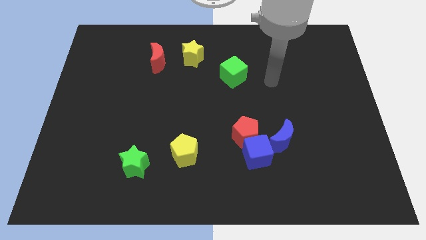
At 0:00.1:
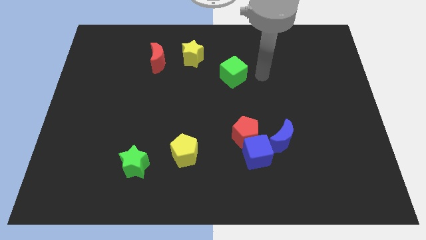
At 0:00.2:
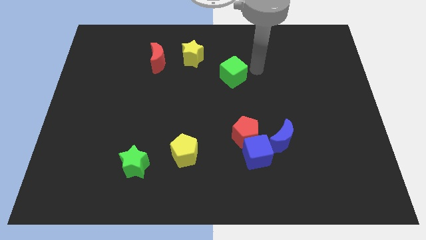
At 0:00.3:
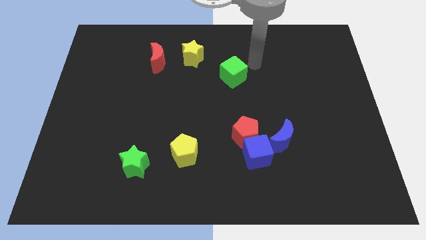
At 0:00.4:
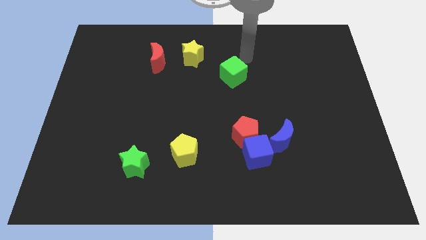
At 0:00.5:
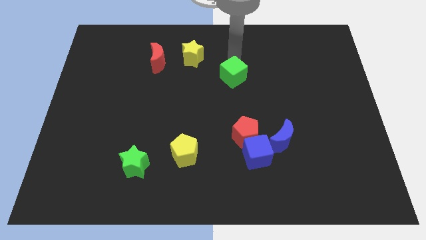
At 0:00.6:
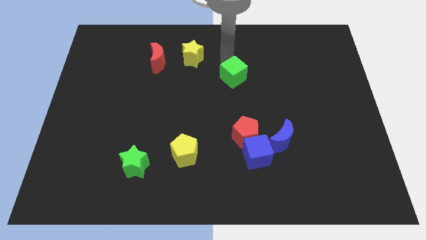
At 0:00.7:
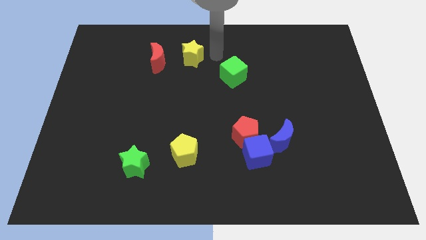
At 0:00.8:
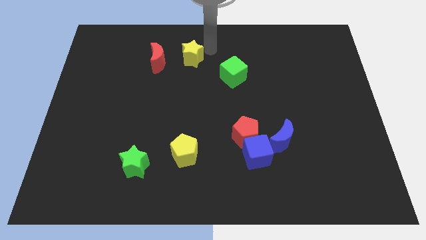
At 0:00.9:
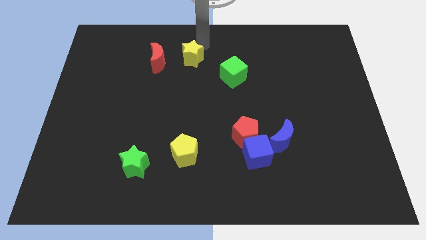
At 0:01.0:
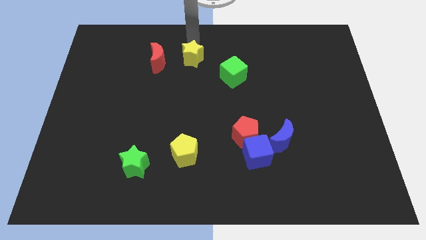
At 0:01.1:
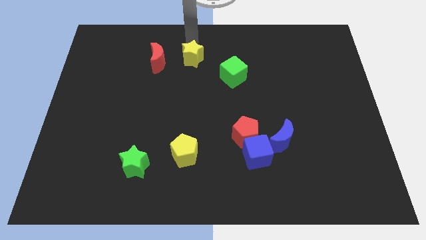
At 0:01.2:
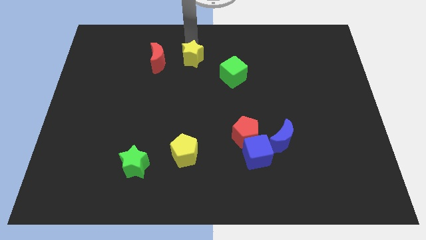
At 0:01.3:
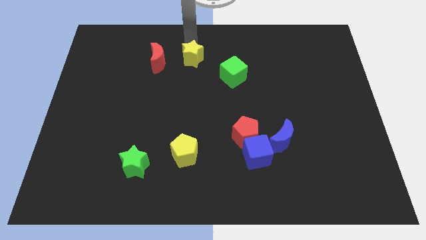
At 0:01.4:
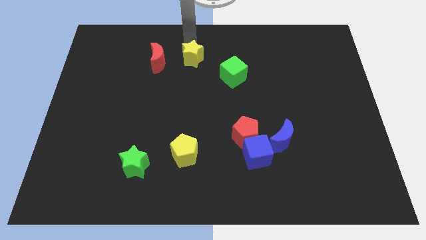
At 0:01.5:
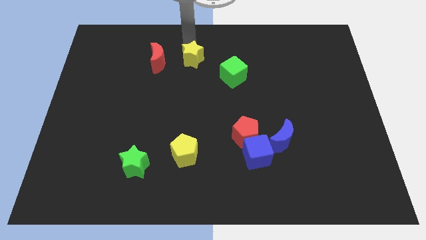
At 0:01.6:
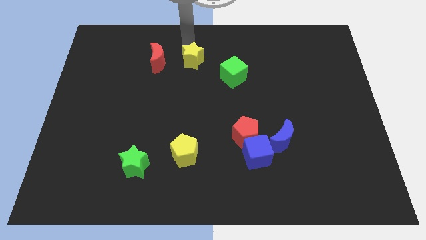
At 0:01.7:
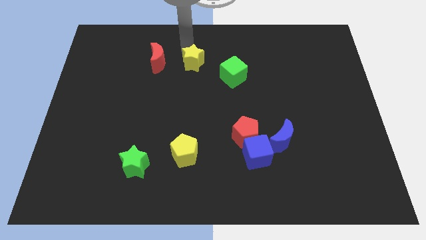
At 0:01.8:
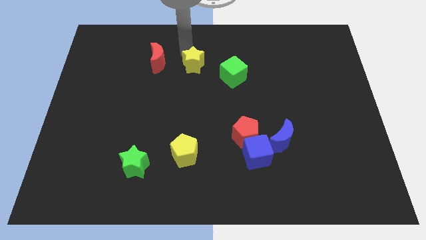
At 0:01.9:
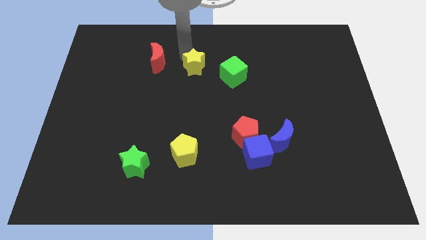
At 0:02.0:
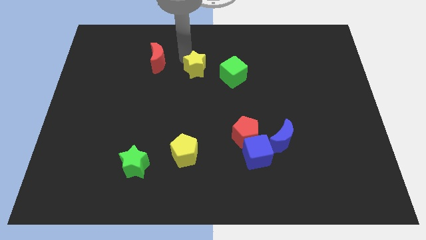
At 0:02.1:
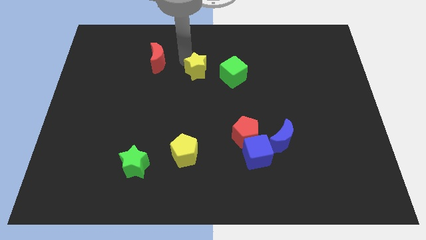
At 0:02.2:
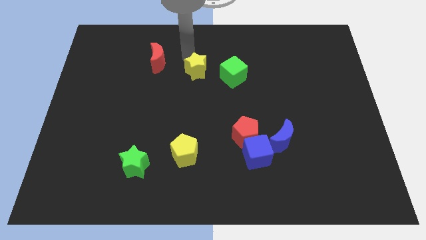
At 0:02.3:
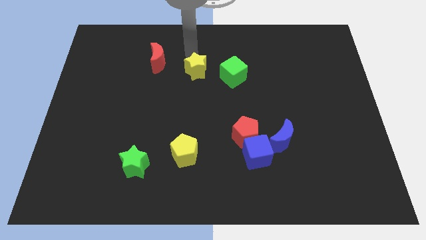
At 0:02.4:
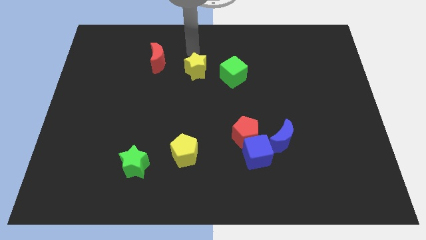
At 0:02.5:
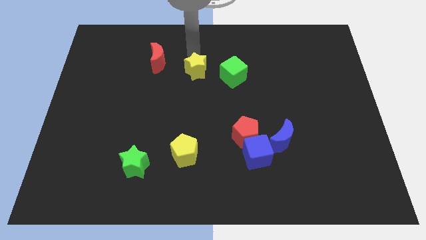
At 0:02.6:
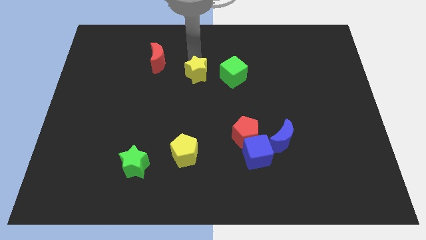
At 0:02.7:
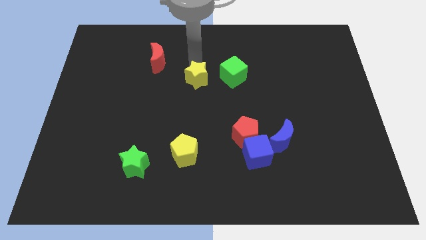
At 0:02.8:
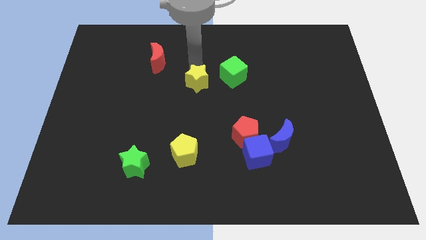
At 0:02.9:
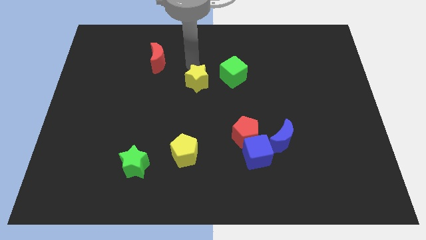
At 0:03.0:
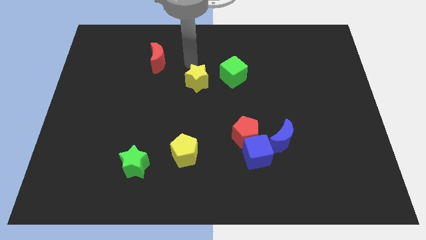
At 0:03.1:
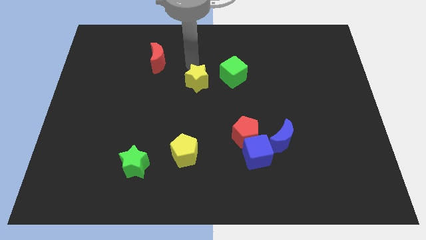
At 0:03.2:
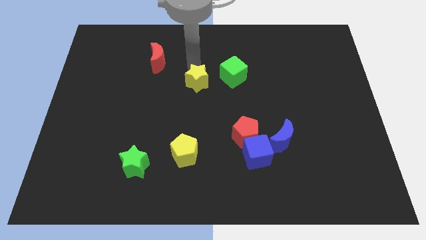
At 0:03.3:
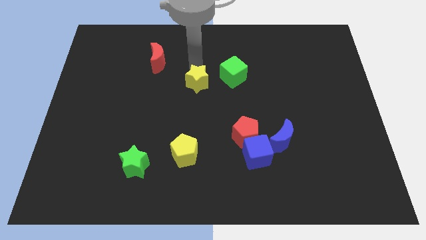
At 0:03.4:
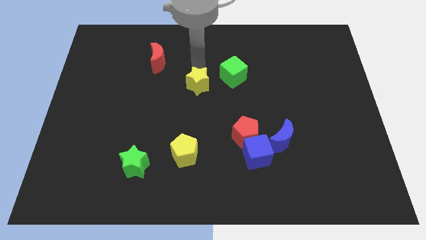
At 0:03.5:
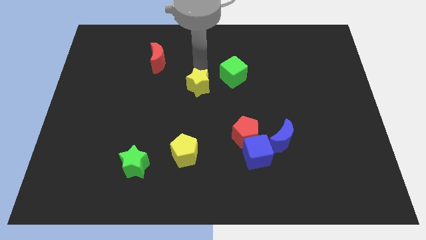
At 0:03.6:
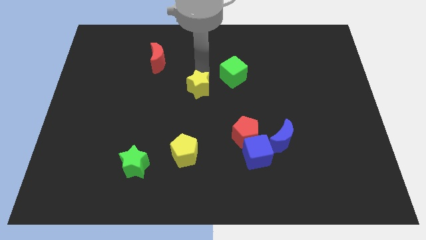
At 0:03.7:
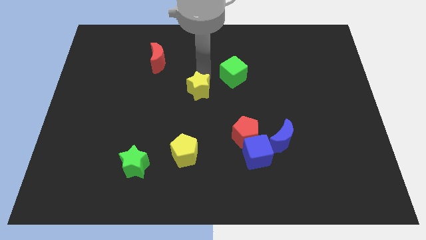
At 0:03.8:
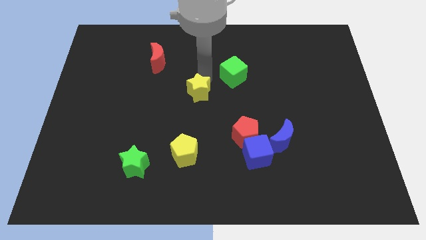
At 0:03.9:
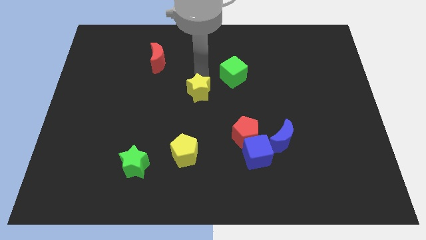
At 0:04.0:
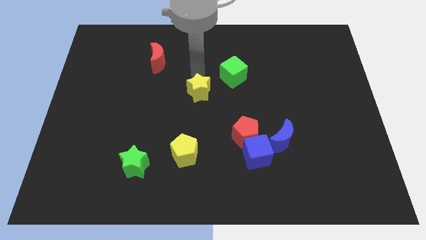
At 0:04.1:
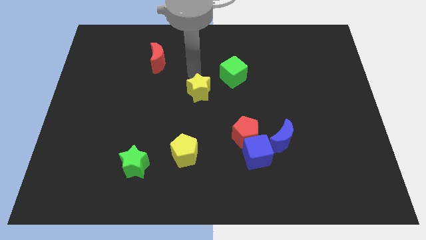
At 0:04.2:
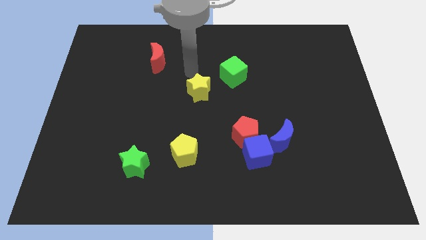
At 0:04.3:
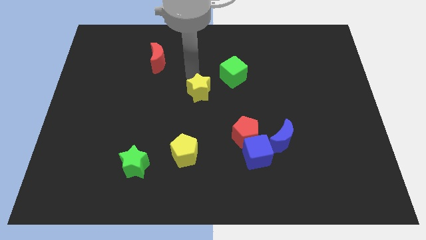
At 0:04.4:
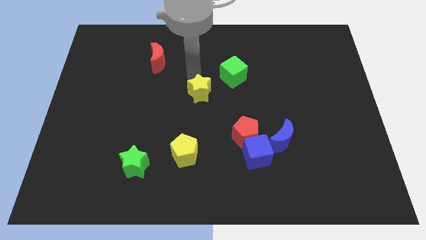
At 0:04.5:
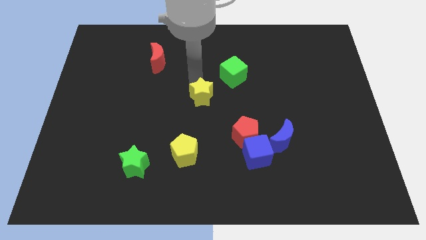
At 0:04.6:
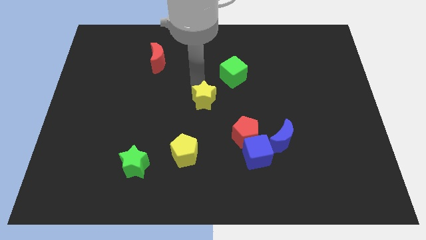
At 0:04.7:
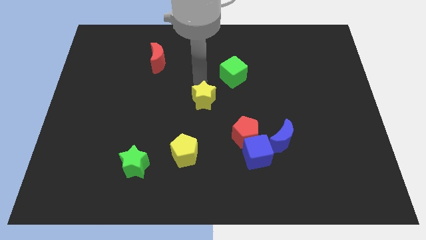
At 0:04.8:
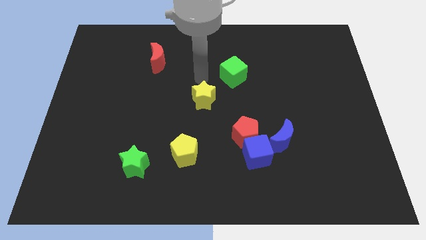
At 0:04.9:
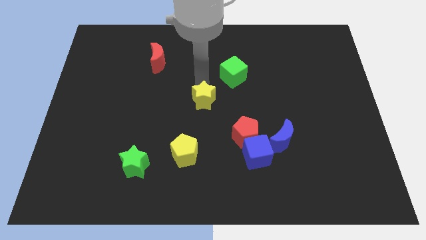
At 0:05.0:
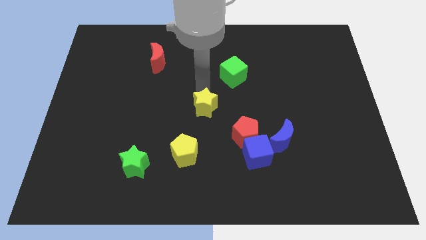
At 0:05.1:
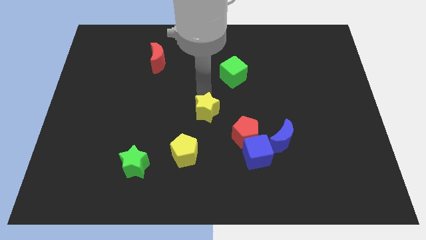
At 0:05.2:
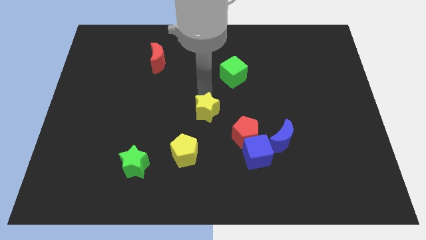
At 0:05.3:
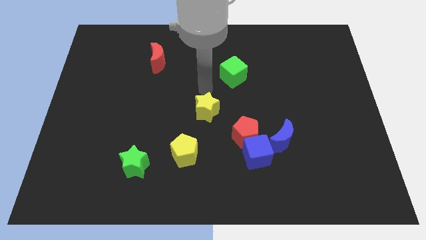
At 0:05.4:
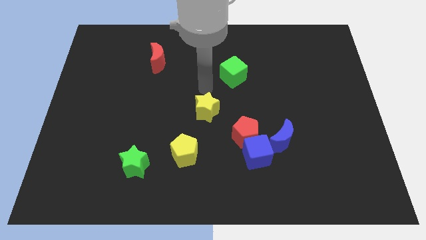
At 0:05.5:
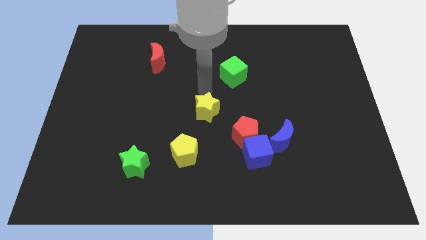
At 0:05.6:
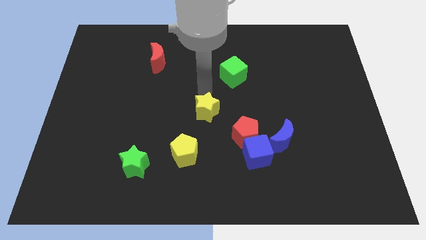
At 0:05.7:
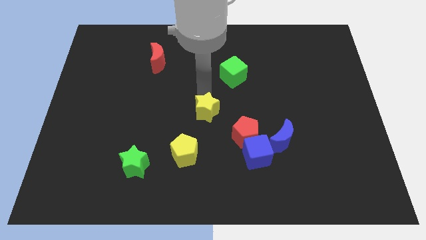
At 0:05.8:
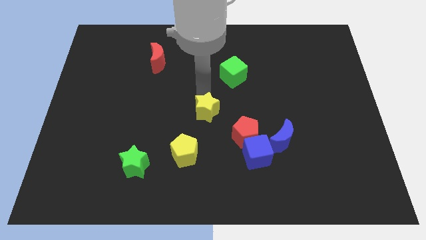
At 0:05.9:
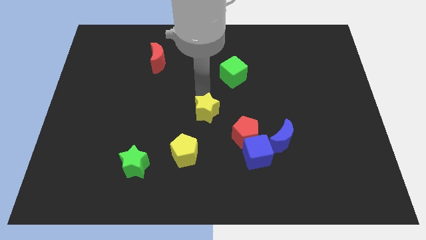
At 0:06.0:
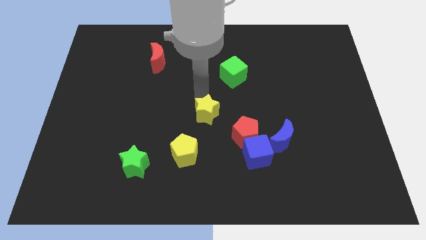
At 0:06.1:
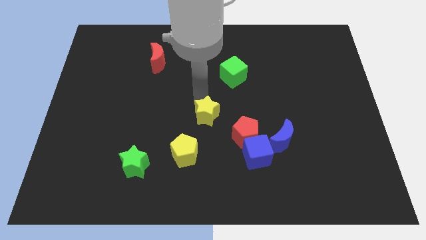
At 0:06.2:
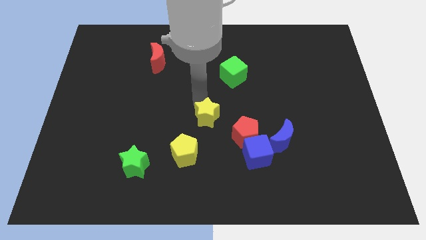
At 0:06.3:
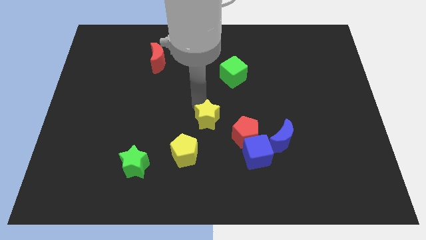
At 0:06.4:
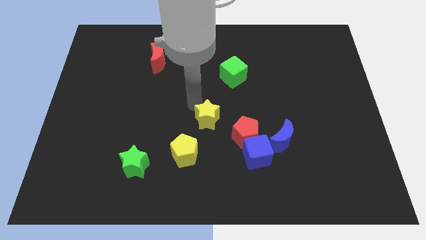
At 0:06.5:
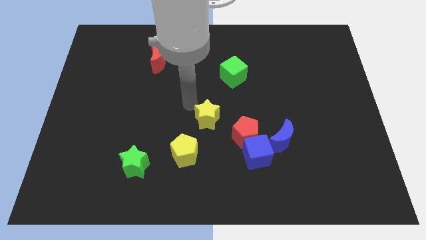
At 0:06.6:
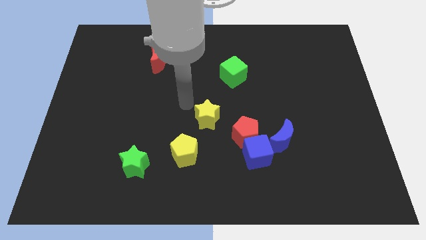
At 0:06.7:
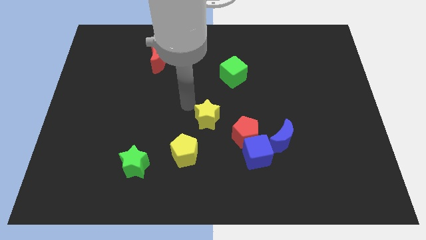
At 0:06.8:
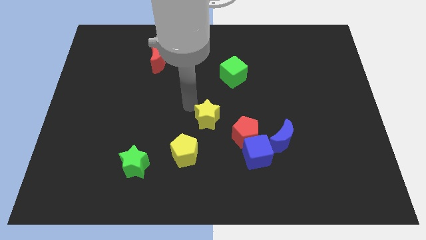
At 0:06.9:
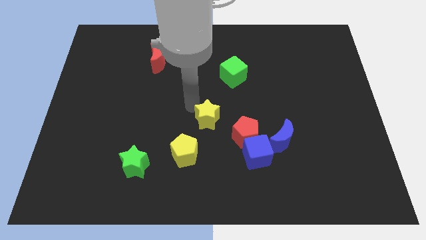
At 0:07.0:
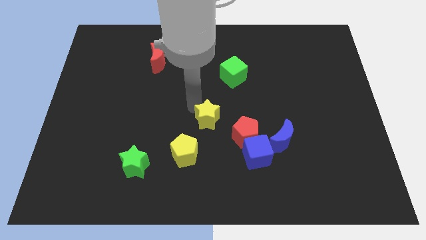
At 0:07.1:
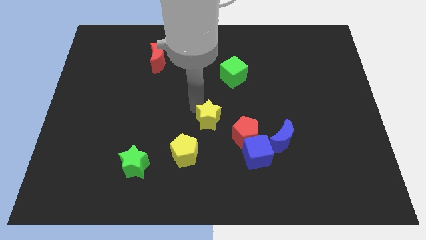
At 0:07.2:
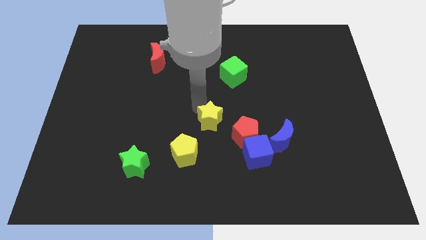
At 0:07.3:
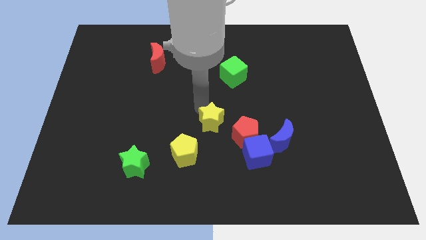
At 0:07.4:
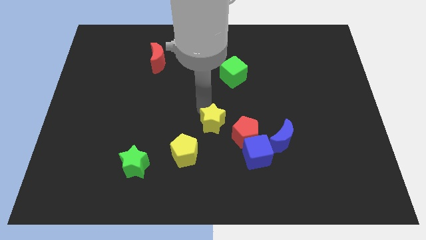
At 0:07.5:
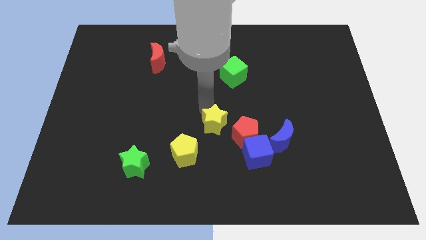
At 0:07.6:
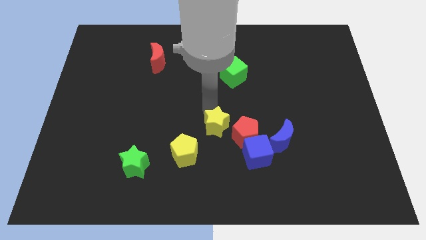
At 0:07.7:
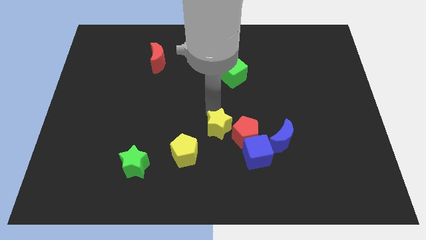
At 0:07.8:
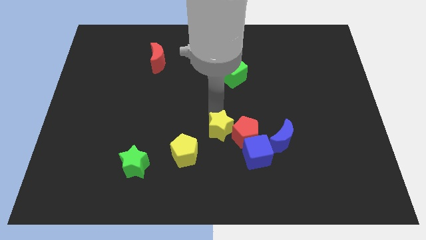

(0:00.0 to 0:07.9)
push the yellow star close to the red pentagon
